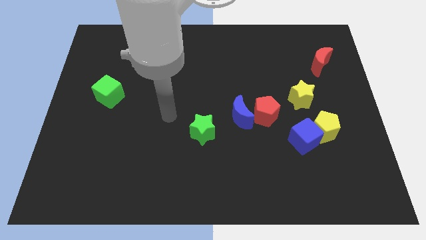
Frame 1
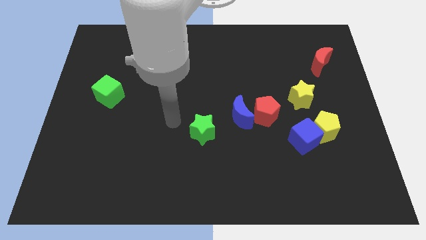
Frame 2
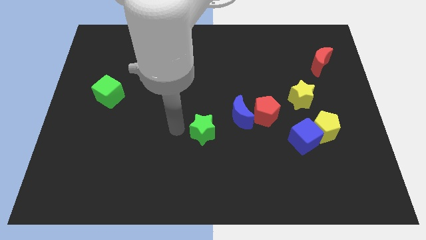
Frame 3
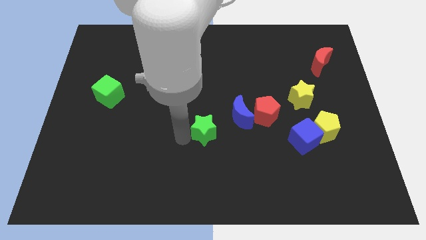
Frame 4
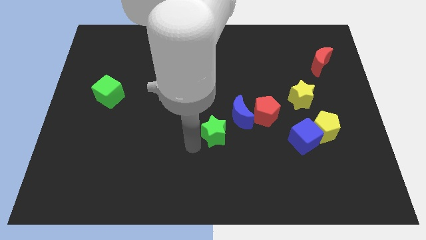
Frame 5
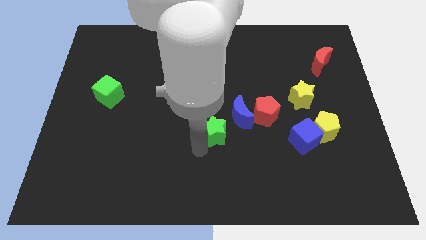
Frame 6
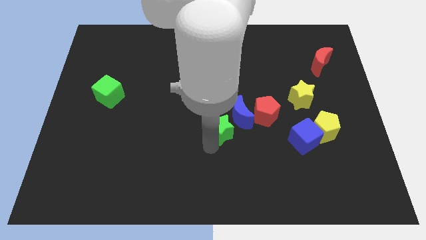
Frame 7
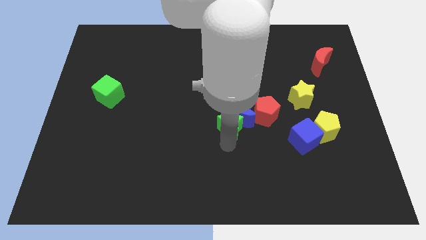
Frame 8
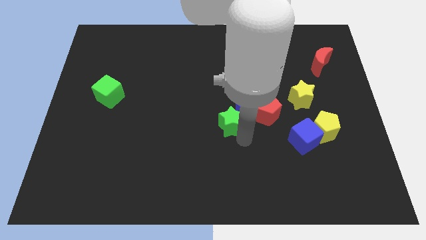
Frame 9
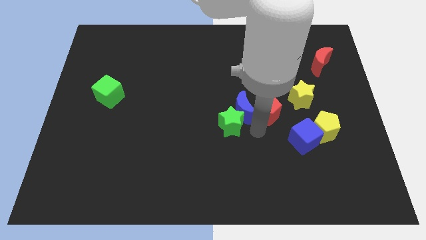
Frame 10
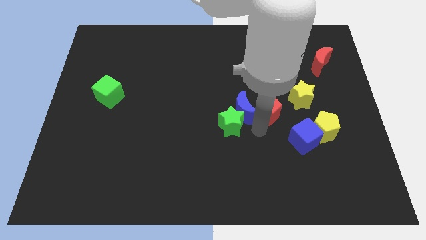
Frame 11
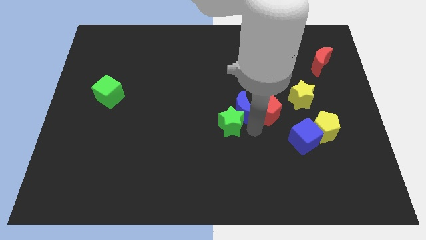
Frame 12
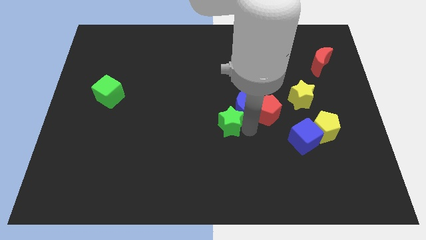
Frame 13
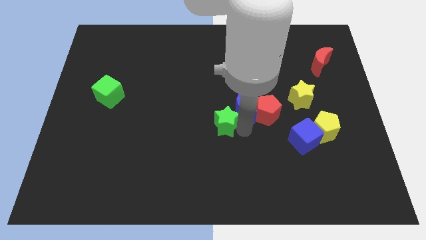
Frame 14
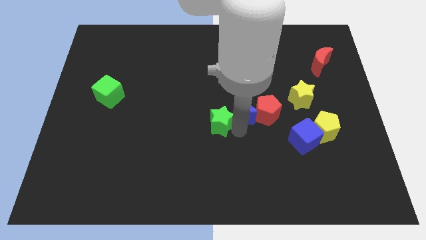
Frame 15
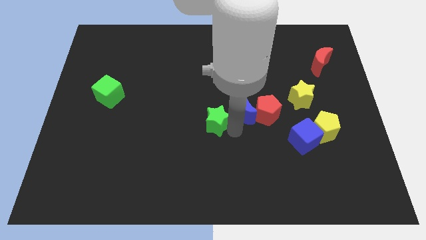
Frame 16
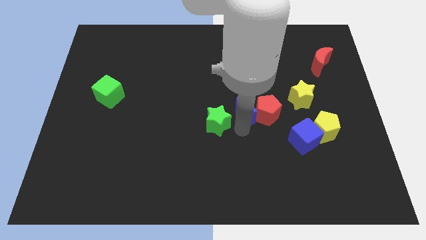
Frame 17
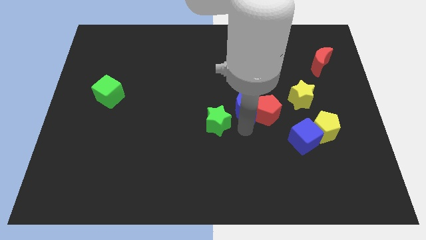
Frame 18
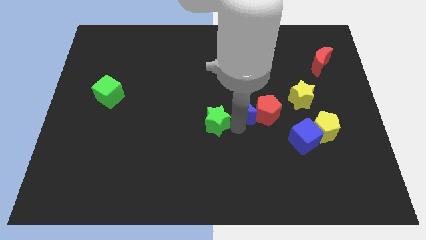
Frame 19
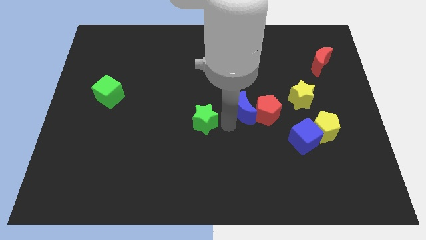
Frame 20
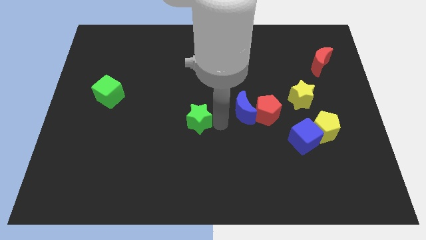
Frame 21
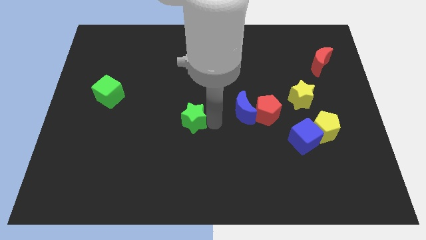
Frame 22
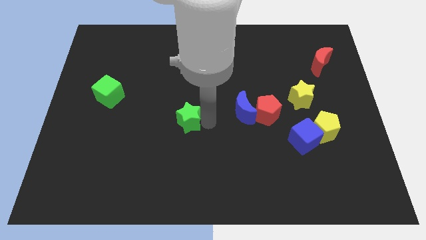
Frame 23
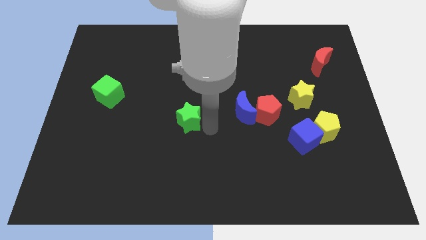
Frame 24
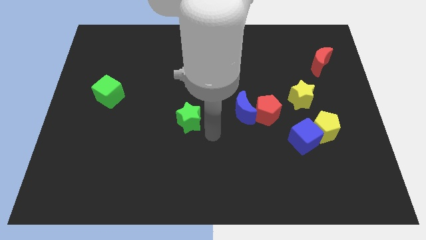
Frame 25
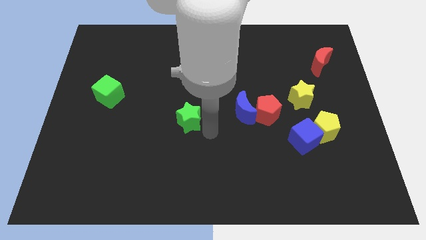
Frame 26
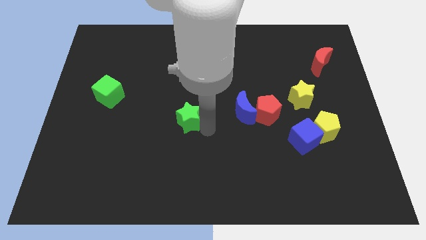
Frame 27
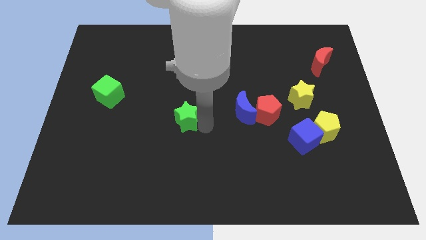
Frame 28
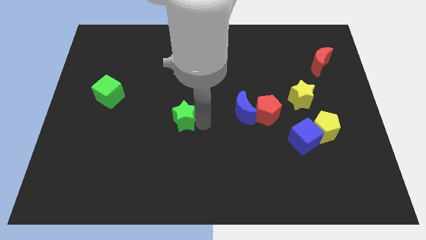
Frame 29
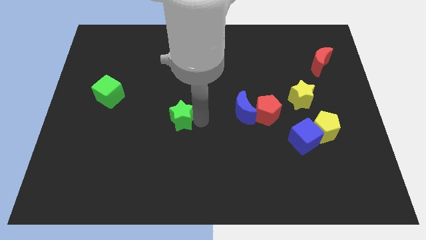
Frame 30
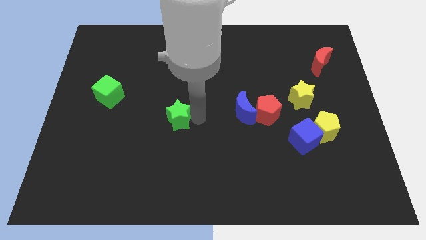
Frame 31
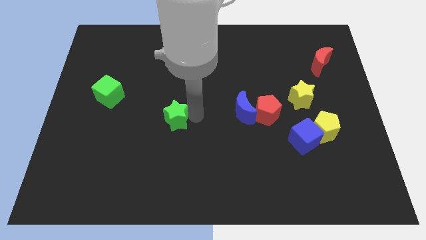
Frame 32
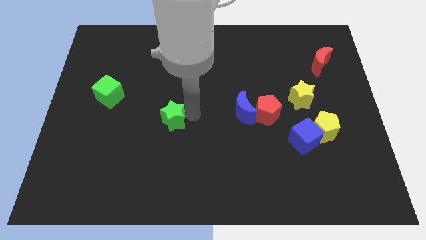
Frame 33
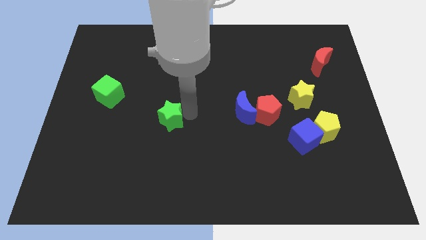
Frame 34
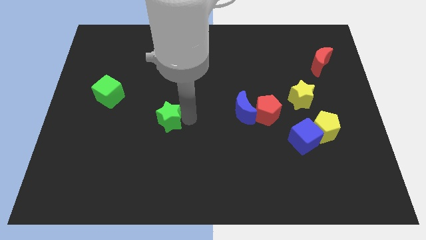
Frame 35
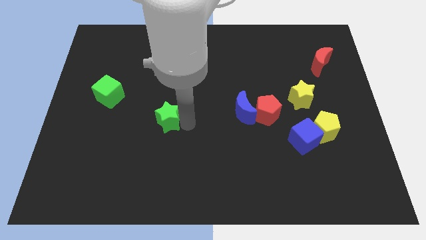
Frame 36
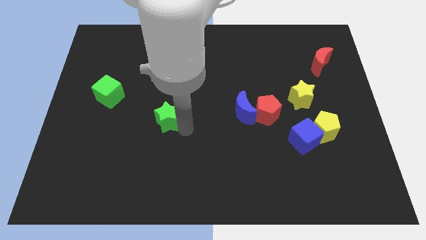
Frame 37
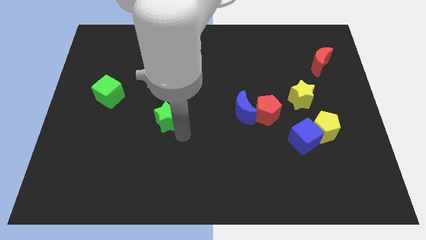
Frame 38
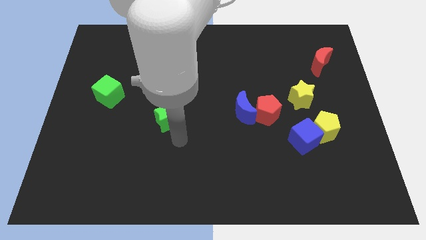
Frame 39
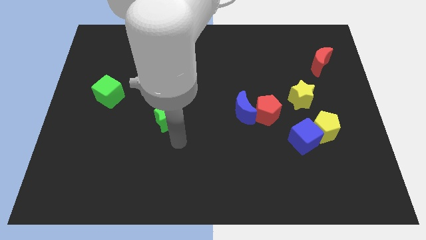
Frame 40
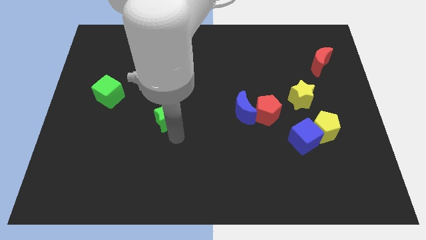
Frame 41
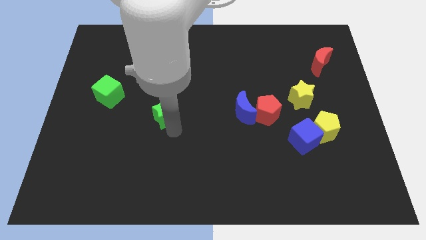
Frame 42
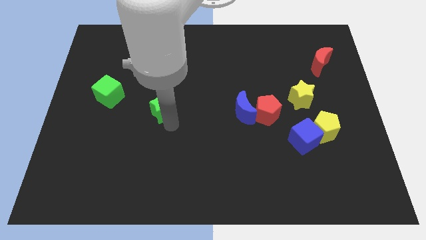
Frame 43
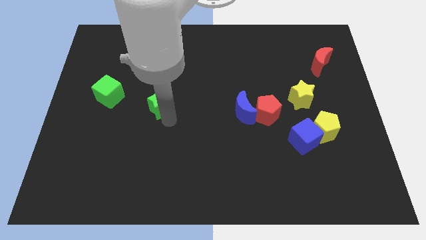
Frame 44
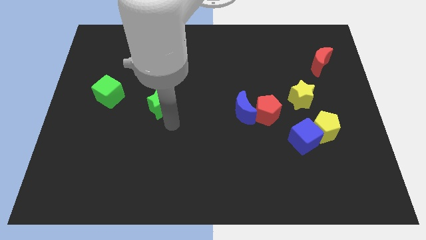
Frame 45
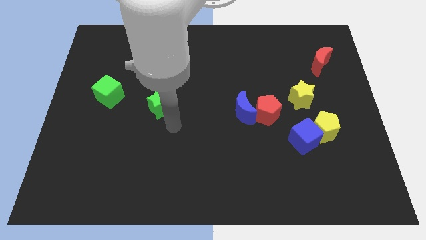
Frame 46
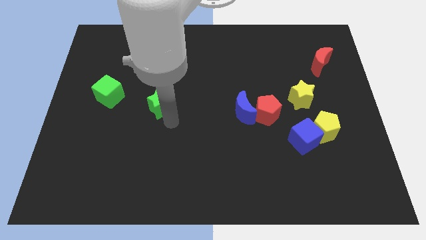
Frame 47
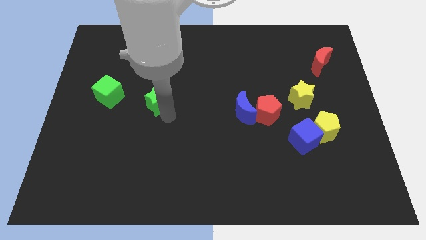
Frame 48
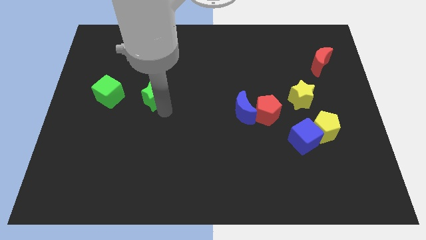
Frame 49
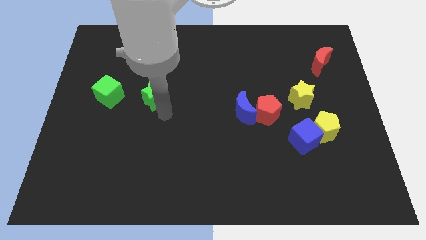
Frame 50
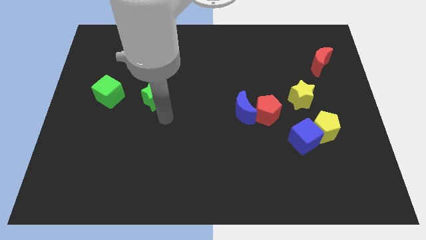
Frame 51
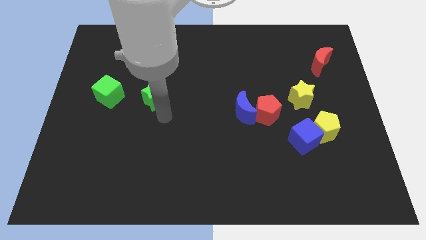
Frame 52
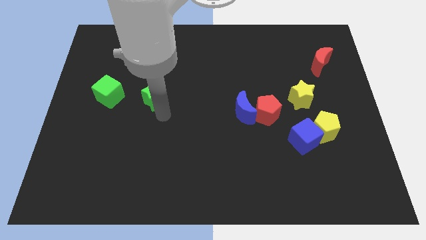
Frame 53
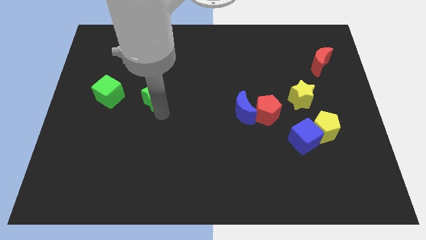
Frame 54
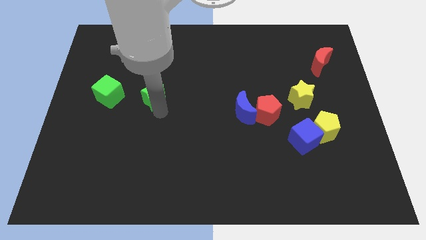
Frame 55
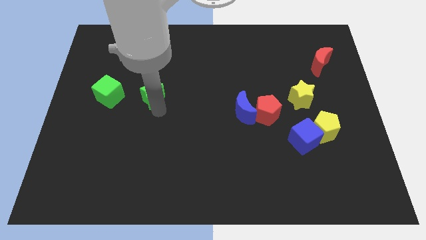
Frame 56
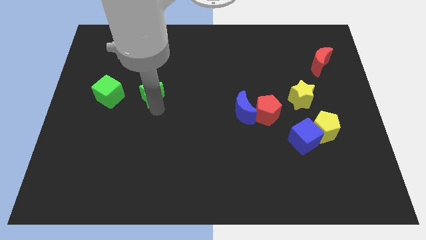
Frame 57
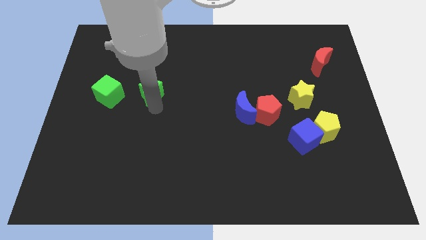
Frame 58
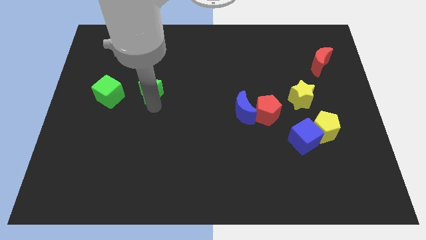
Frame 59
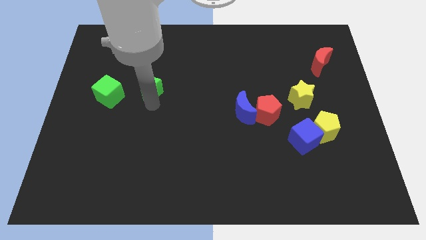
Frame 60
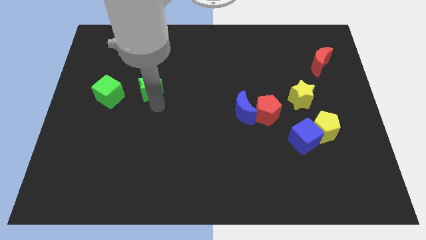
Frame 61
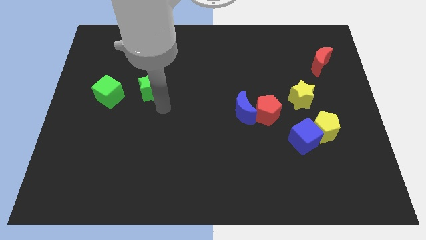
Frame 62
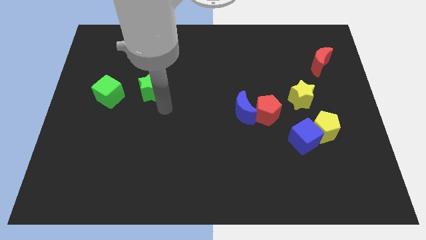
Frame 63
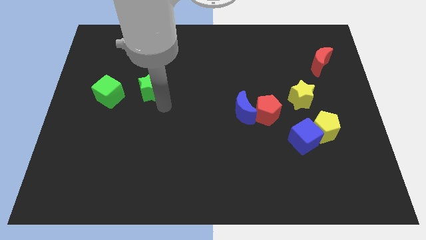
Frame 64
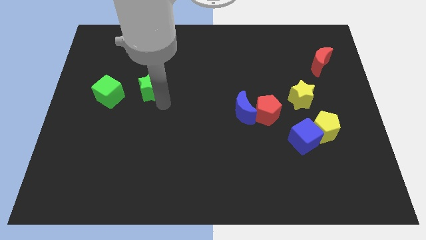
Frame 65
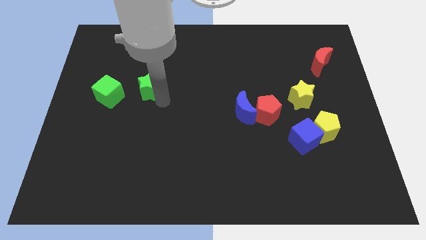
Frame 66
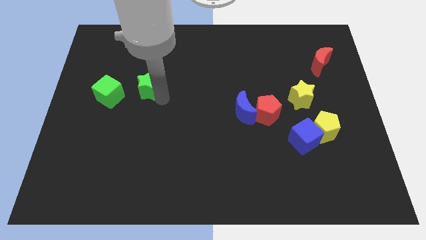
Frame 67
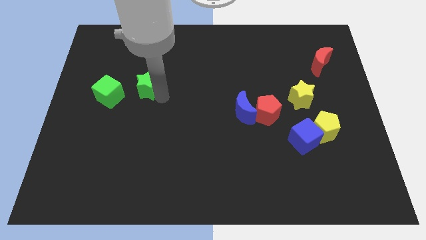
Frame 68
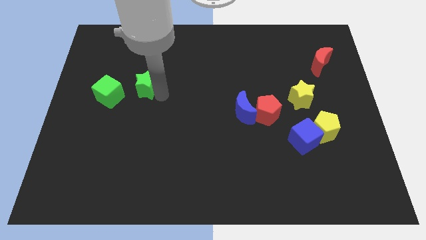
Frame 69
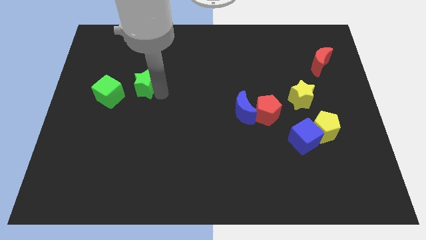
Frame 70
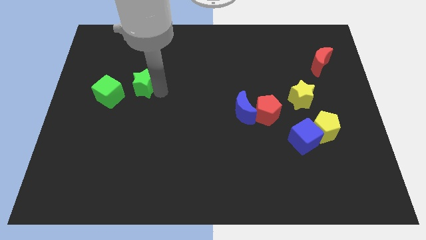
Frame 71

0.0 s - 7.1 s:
push the green star upwards and then left

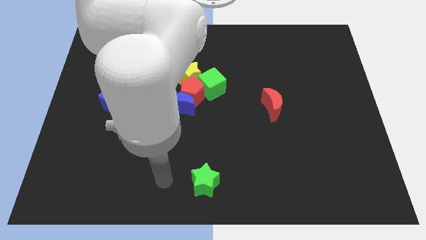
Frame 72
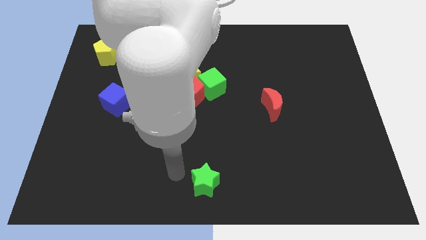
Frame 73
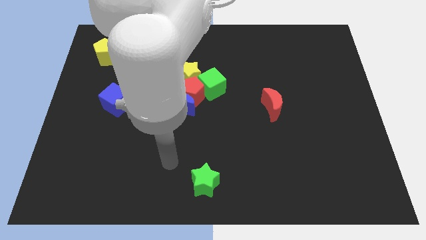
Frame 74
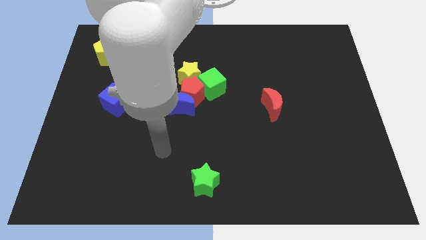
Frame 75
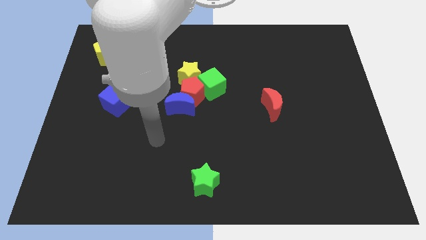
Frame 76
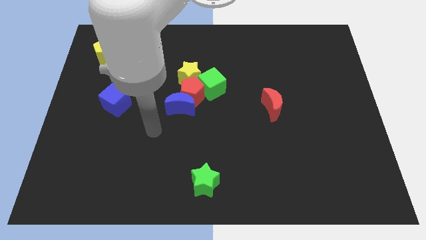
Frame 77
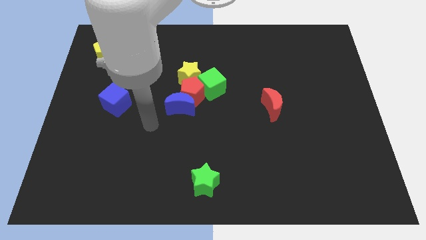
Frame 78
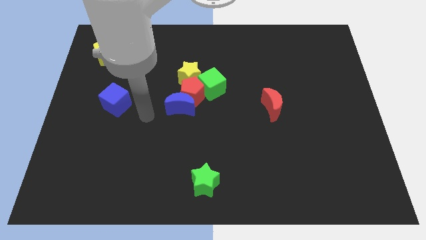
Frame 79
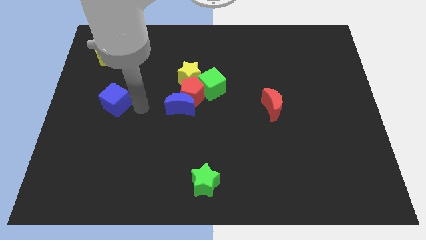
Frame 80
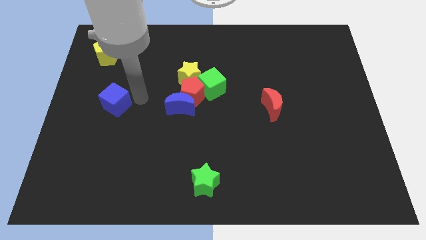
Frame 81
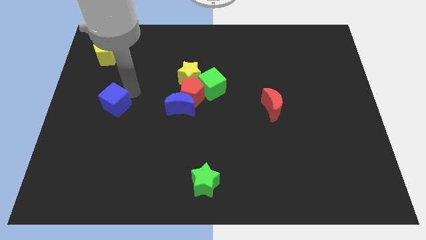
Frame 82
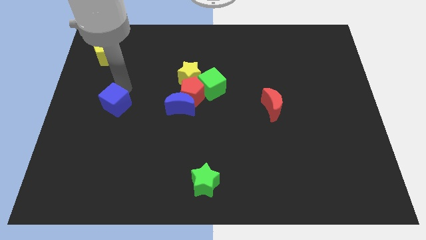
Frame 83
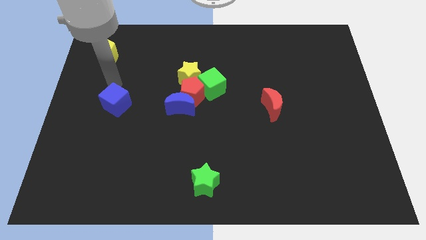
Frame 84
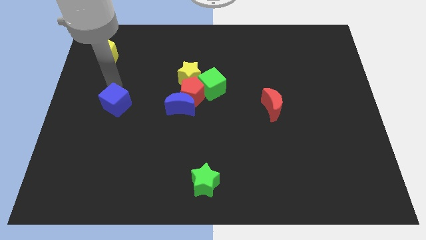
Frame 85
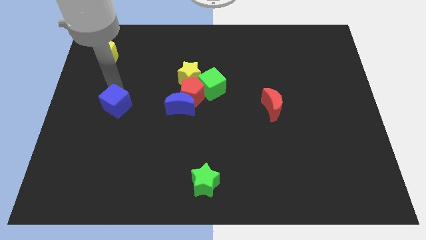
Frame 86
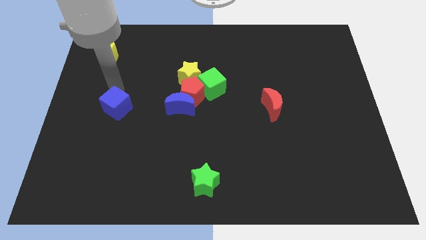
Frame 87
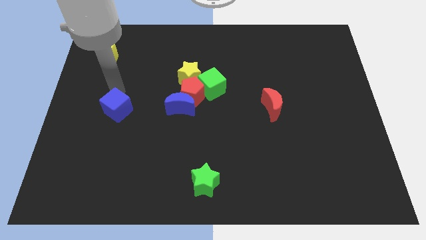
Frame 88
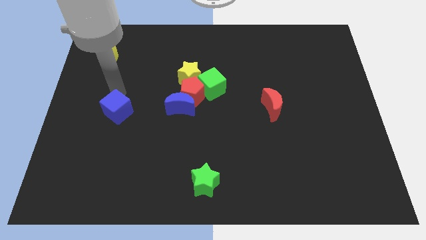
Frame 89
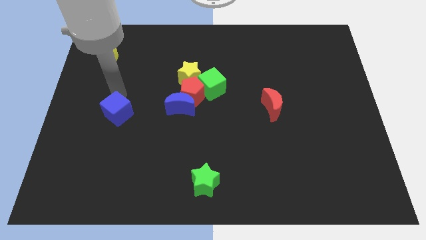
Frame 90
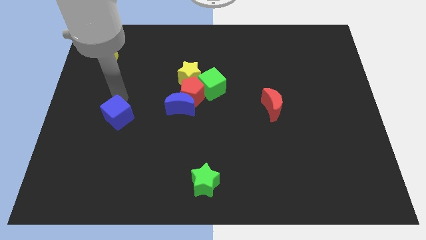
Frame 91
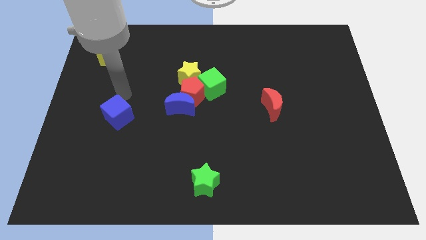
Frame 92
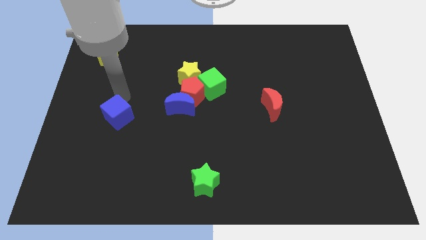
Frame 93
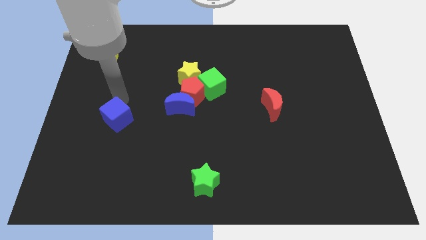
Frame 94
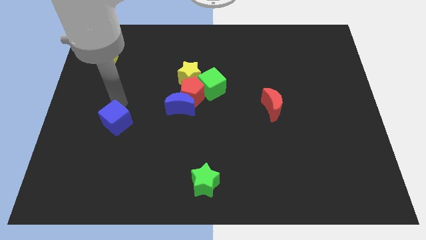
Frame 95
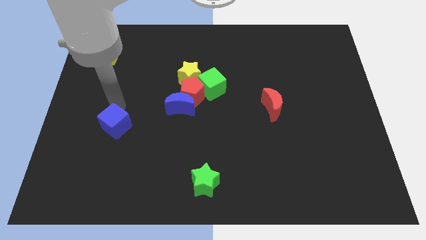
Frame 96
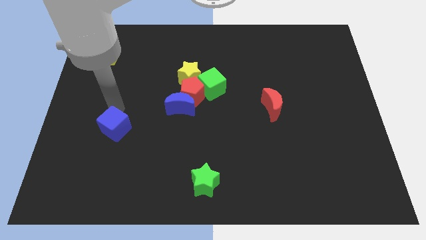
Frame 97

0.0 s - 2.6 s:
move the blue cube a little bit downwards
